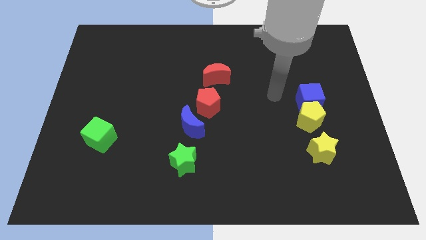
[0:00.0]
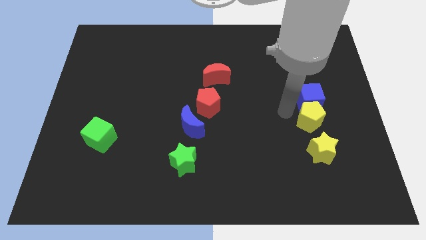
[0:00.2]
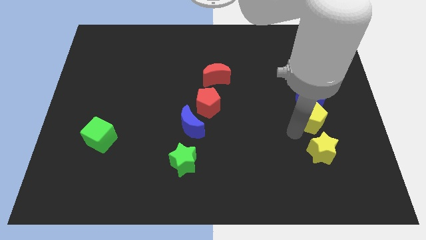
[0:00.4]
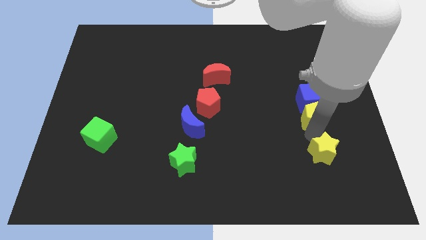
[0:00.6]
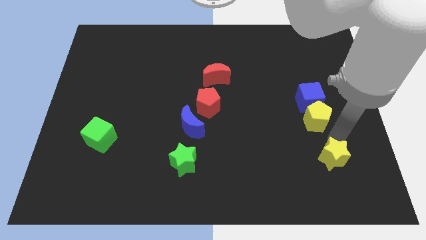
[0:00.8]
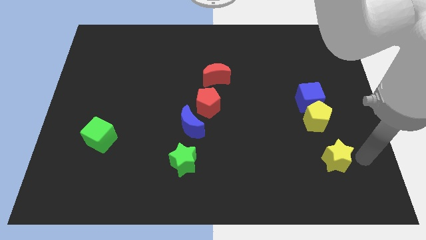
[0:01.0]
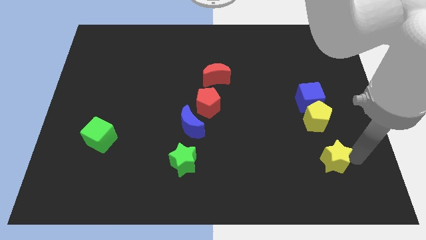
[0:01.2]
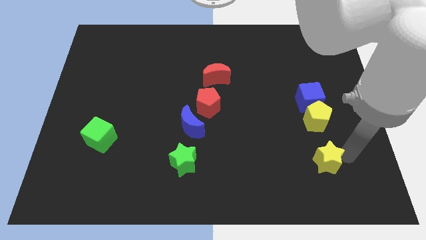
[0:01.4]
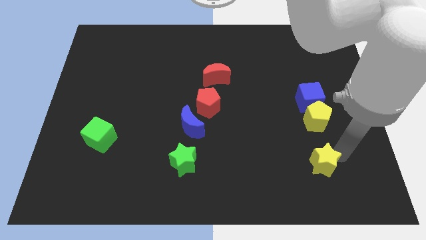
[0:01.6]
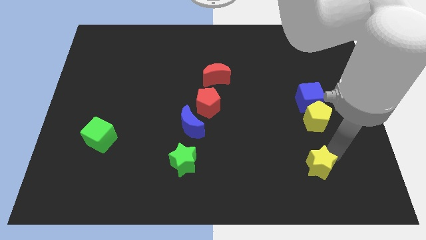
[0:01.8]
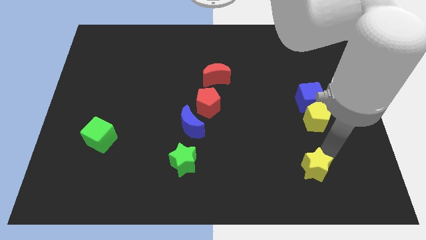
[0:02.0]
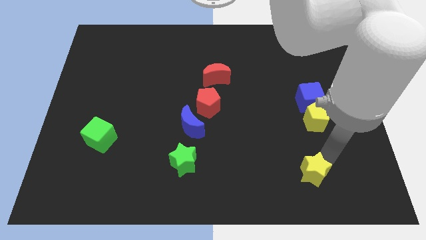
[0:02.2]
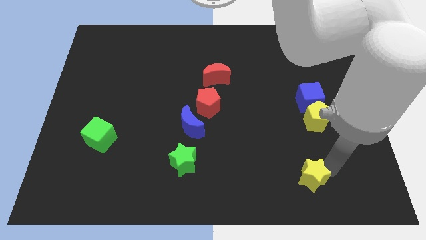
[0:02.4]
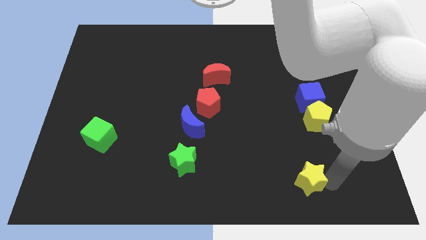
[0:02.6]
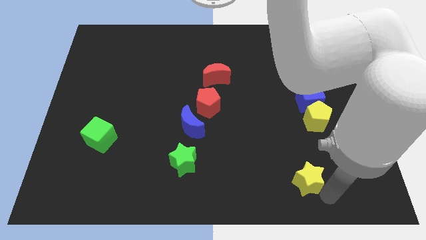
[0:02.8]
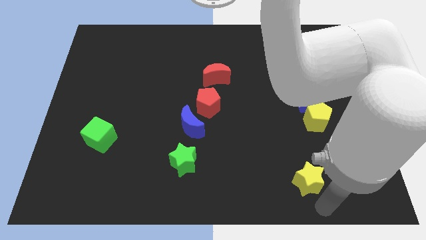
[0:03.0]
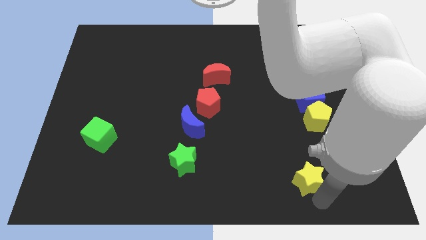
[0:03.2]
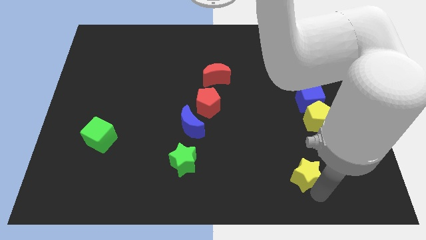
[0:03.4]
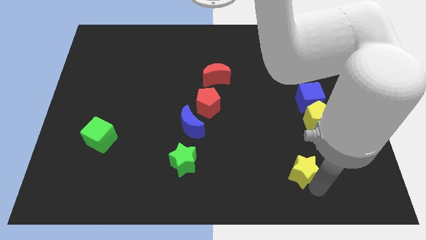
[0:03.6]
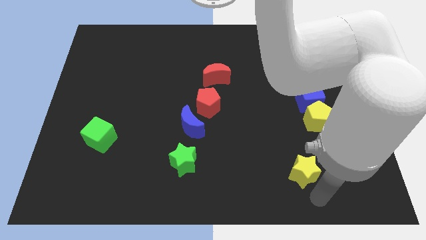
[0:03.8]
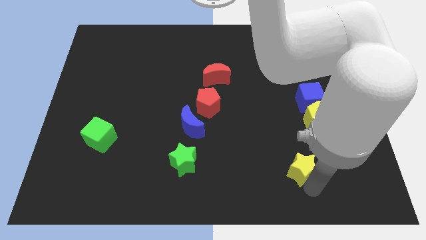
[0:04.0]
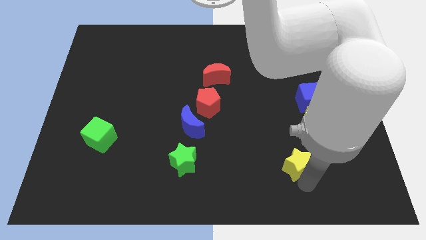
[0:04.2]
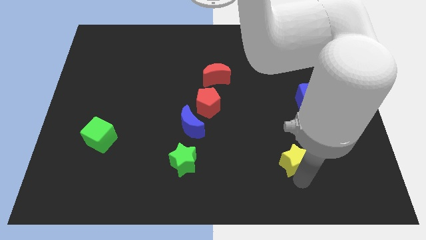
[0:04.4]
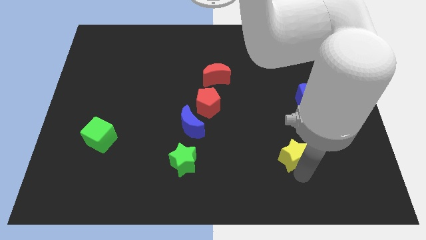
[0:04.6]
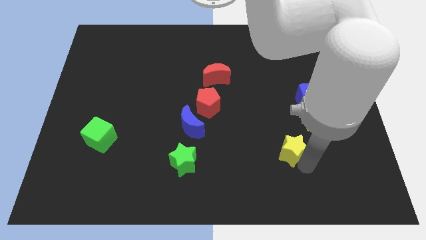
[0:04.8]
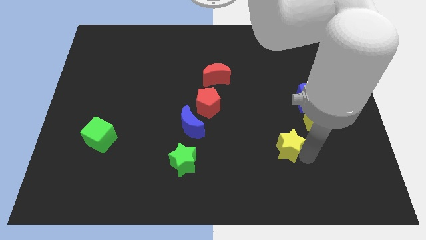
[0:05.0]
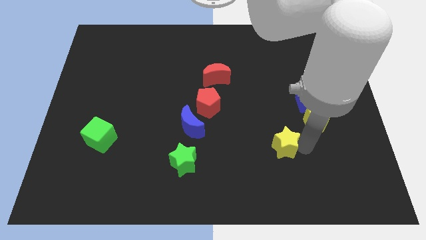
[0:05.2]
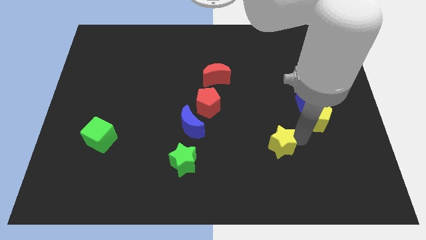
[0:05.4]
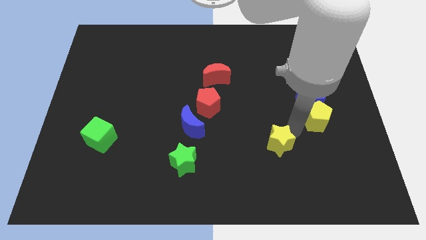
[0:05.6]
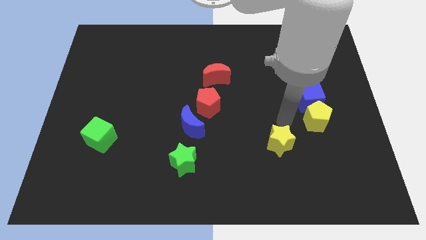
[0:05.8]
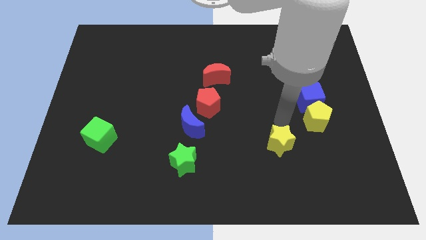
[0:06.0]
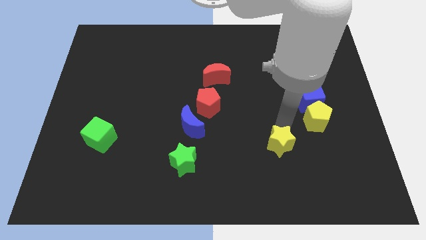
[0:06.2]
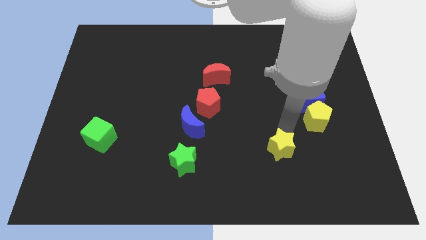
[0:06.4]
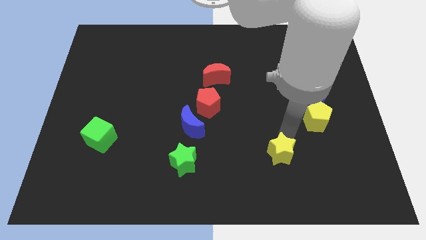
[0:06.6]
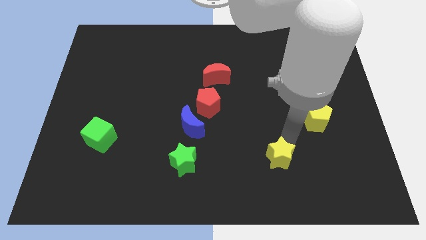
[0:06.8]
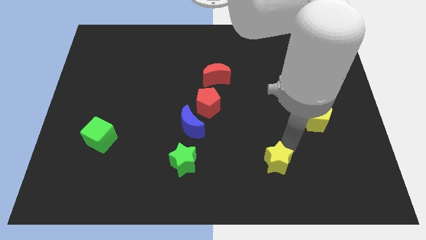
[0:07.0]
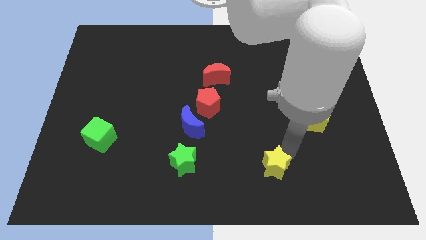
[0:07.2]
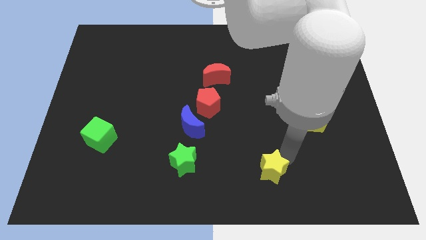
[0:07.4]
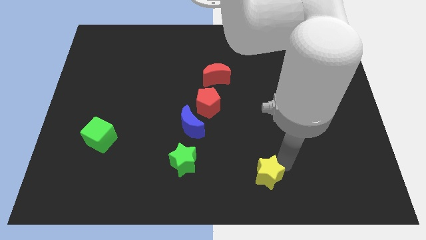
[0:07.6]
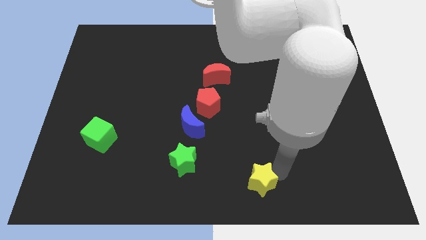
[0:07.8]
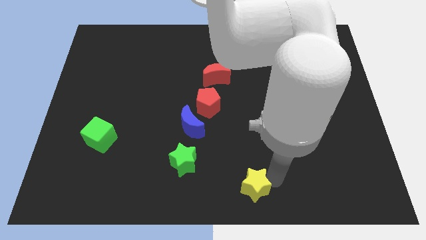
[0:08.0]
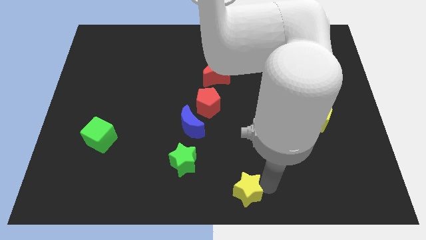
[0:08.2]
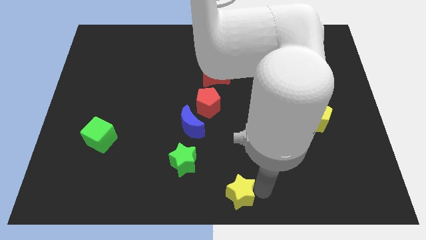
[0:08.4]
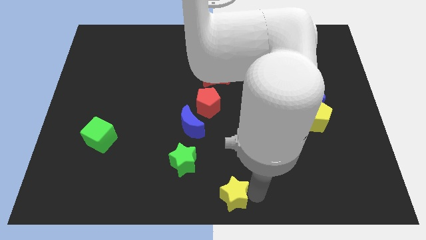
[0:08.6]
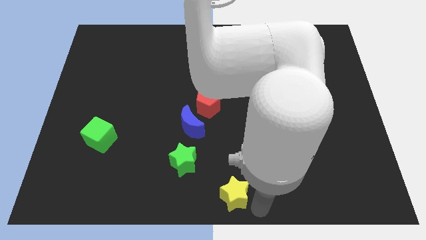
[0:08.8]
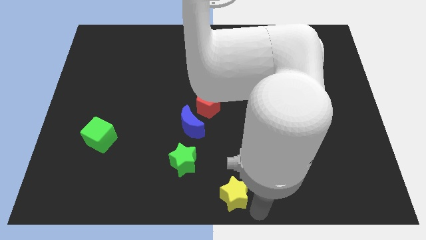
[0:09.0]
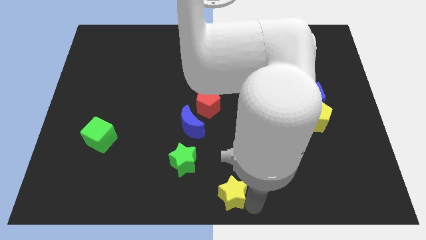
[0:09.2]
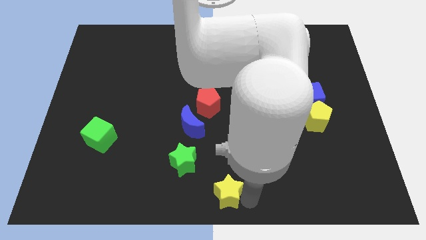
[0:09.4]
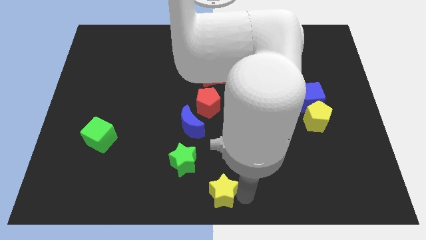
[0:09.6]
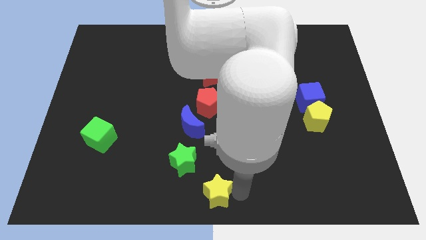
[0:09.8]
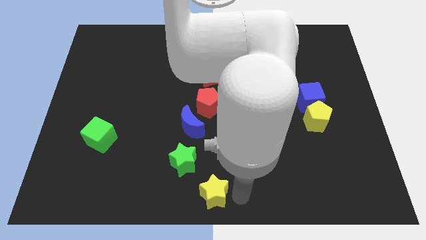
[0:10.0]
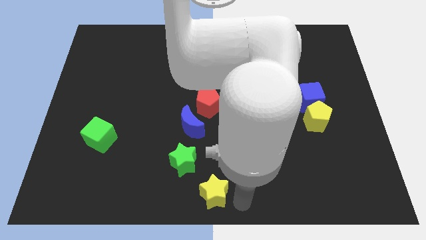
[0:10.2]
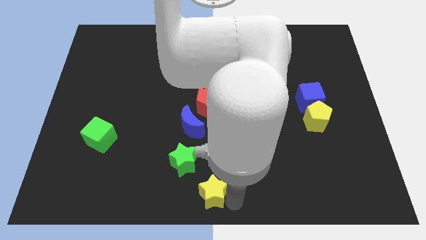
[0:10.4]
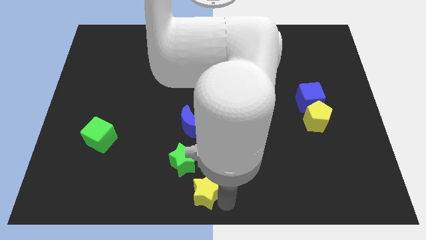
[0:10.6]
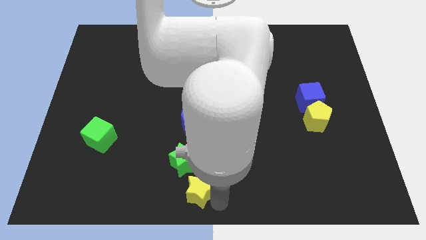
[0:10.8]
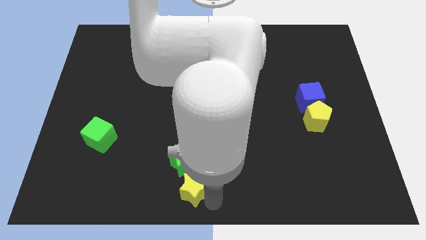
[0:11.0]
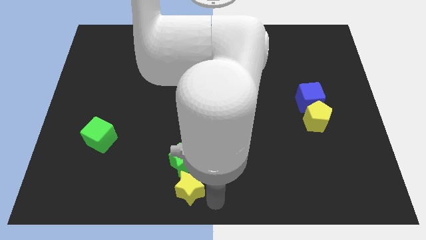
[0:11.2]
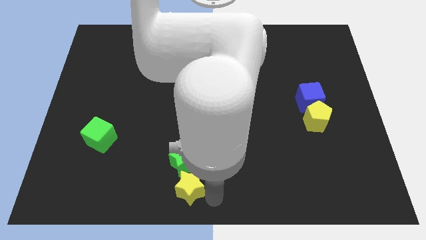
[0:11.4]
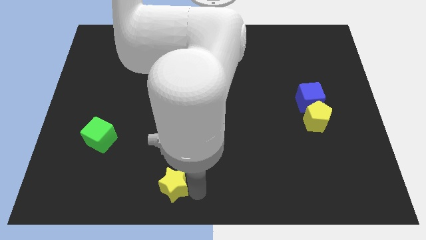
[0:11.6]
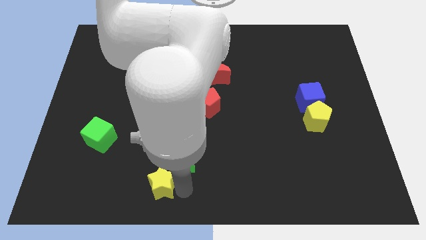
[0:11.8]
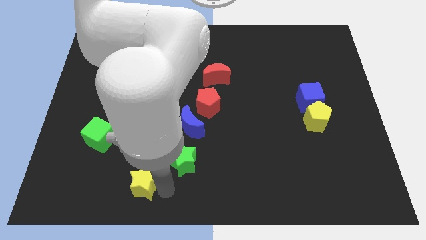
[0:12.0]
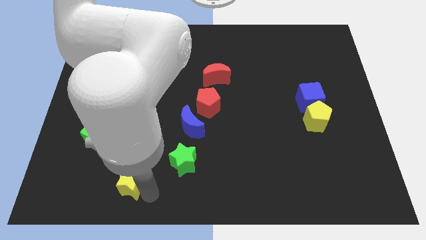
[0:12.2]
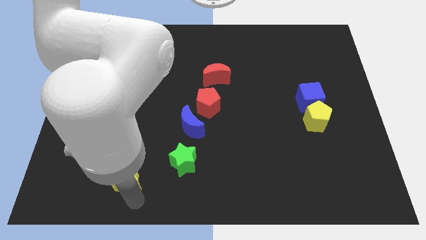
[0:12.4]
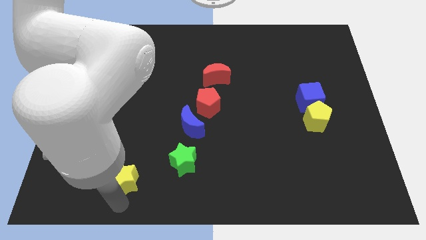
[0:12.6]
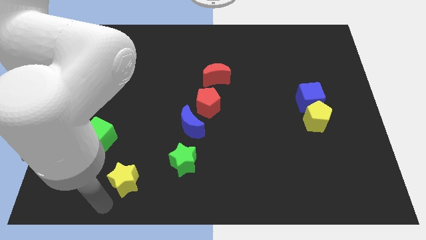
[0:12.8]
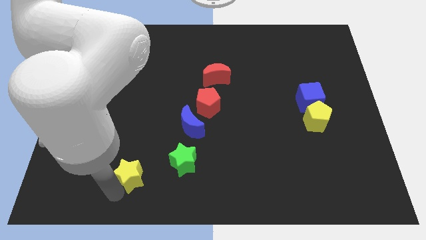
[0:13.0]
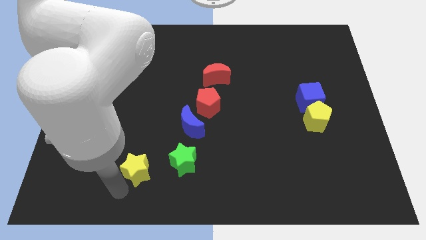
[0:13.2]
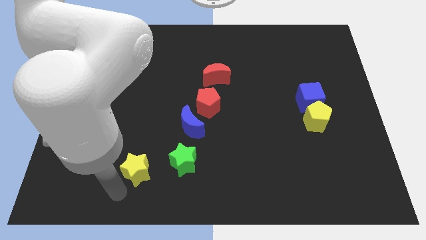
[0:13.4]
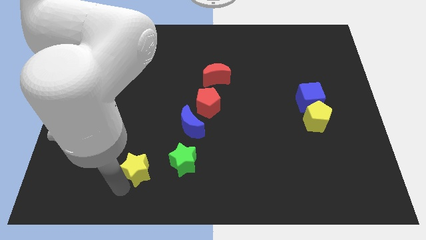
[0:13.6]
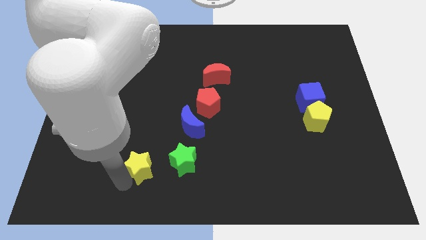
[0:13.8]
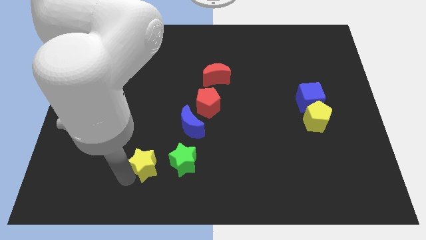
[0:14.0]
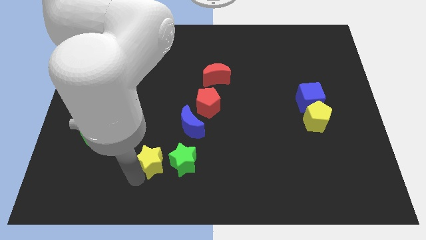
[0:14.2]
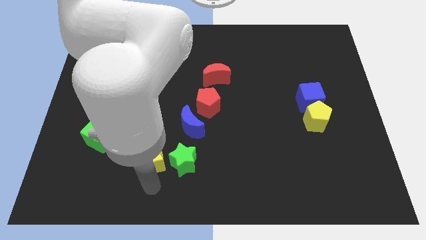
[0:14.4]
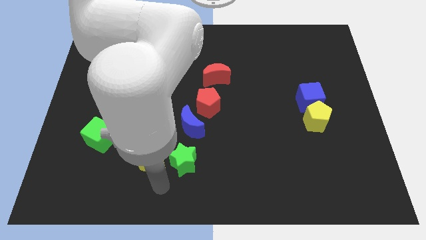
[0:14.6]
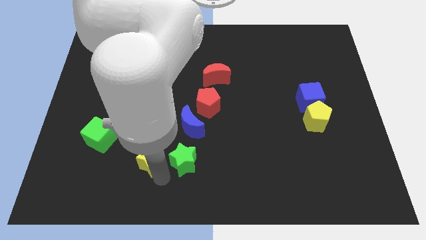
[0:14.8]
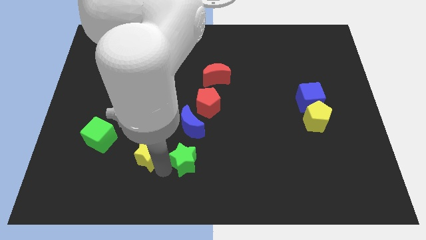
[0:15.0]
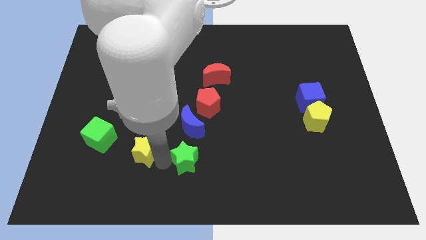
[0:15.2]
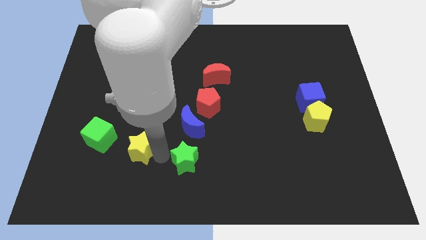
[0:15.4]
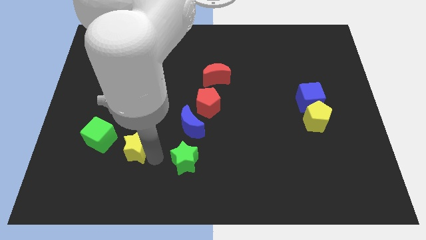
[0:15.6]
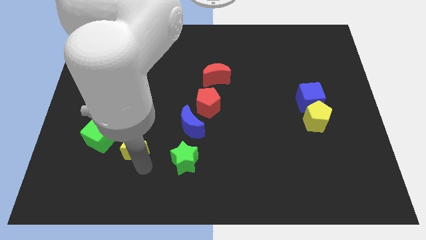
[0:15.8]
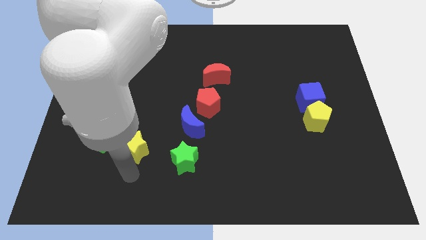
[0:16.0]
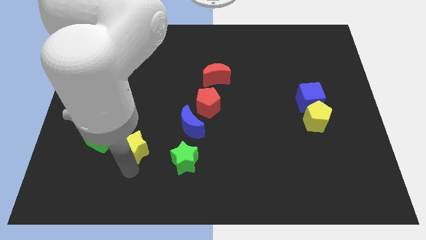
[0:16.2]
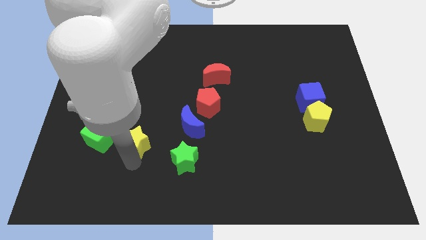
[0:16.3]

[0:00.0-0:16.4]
slide the yellow star to the left of the blue moon
